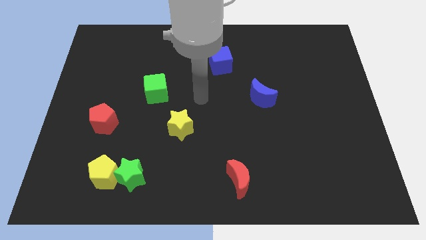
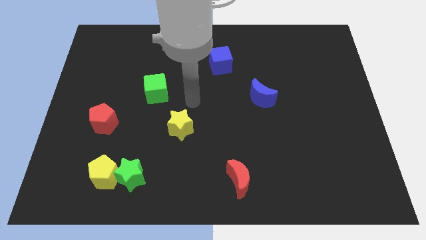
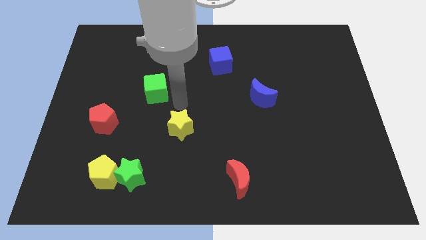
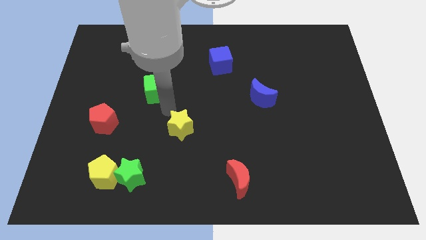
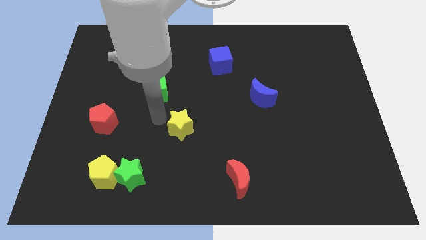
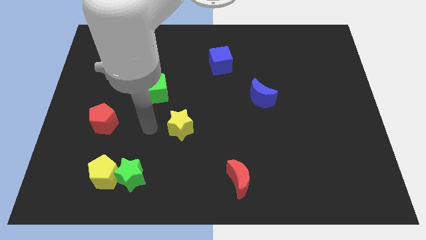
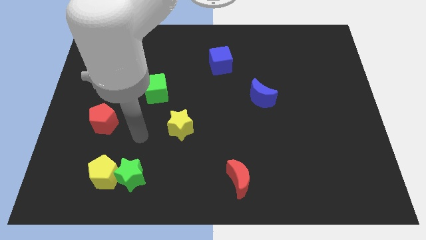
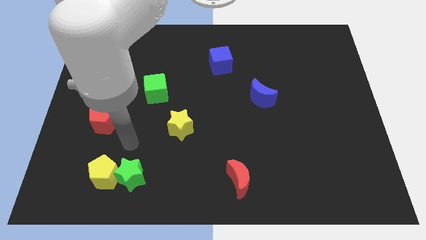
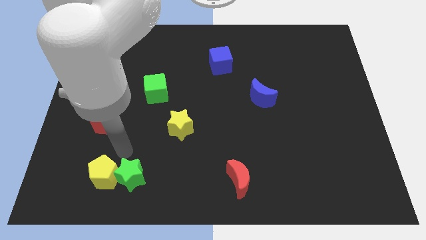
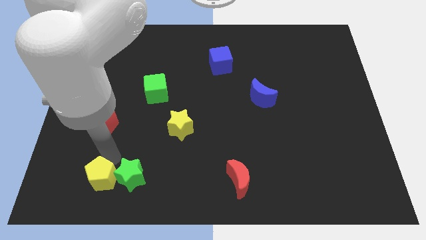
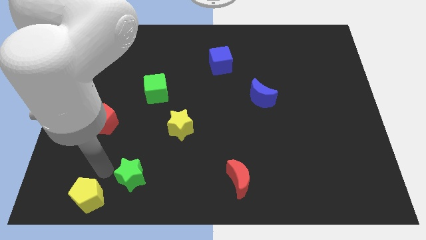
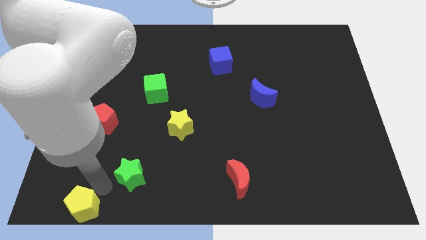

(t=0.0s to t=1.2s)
pull the green star apart from the yellow pentagon

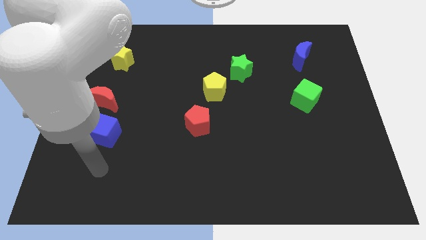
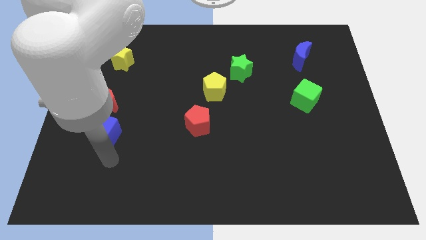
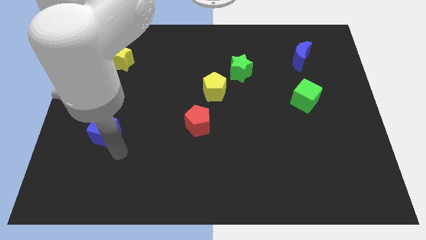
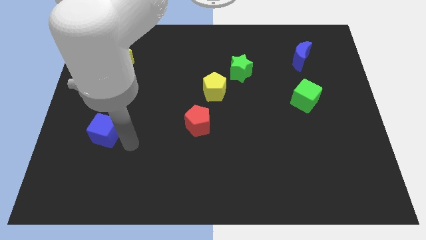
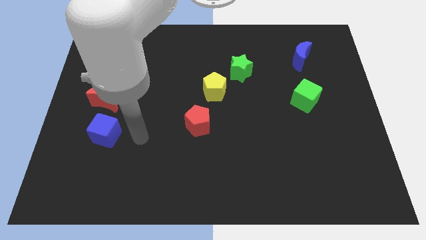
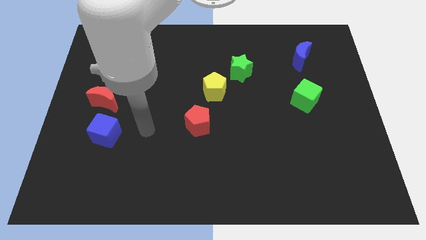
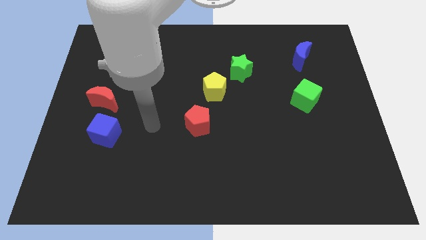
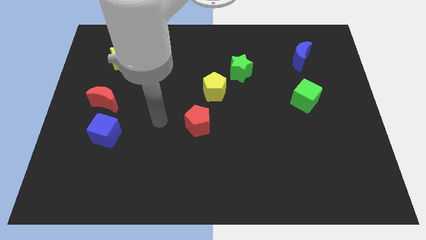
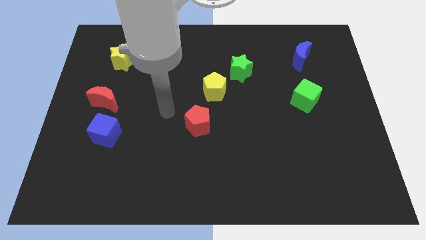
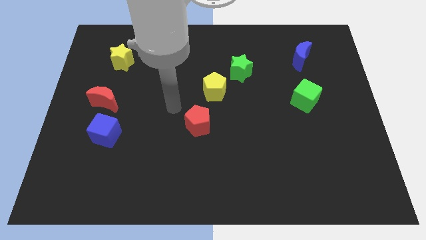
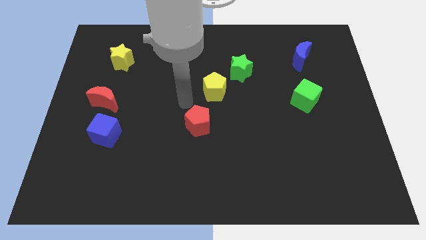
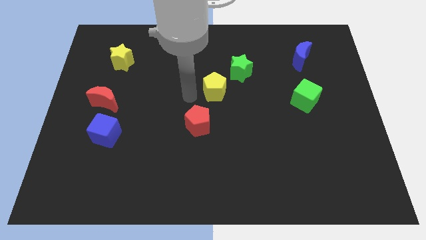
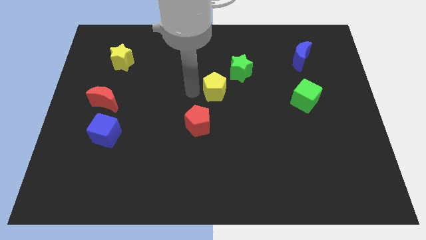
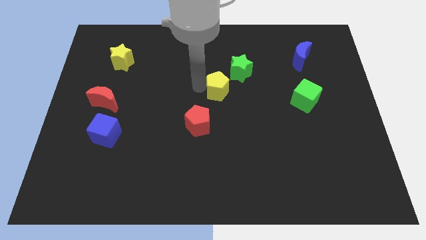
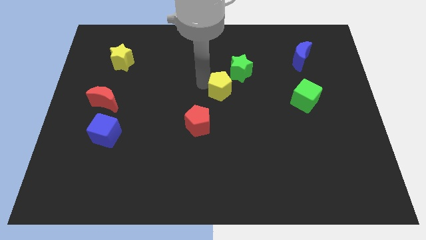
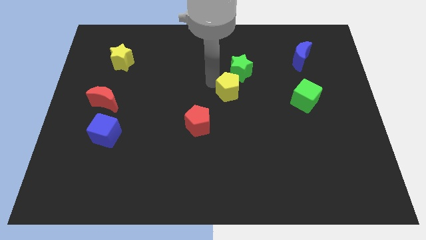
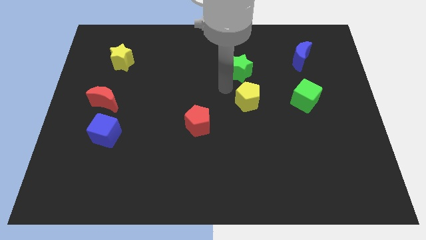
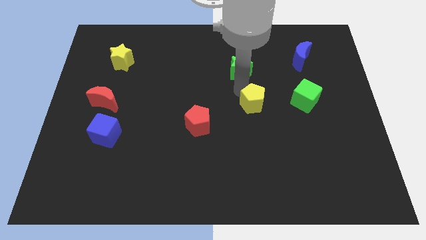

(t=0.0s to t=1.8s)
separate the green star from the yellow pentagon

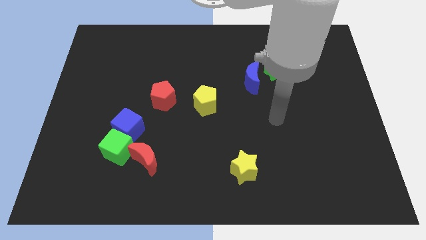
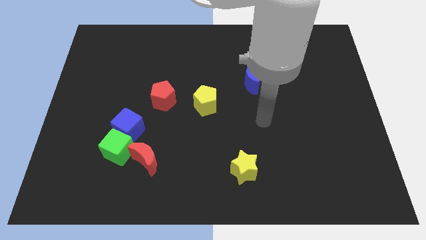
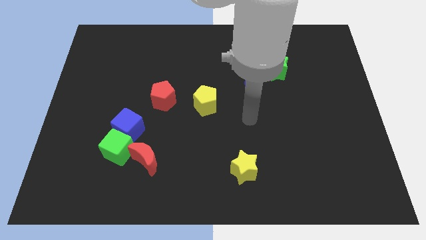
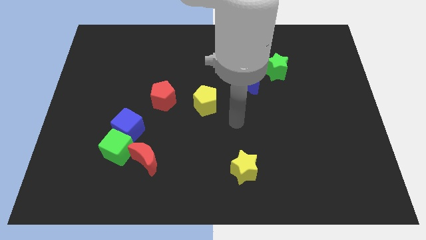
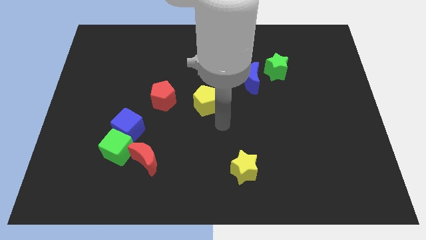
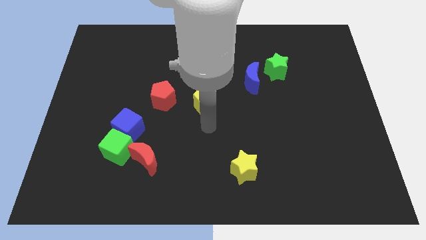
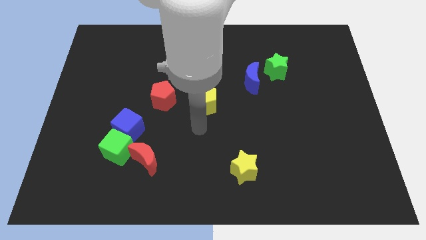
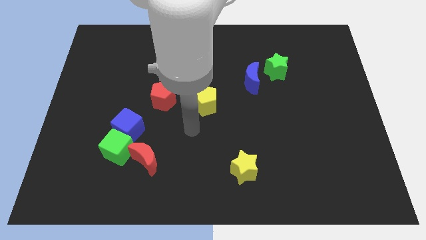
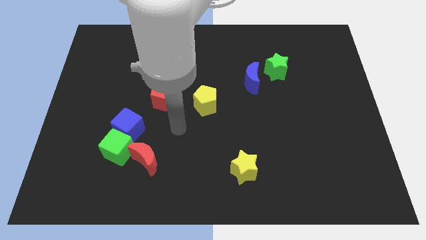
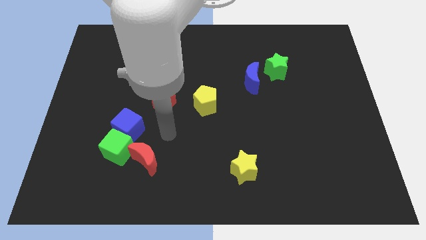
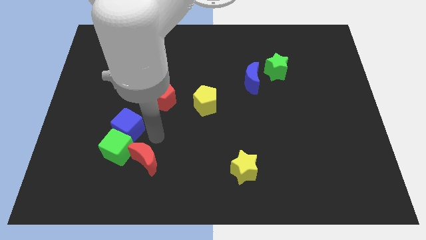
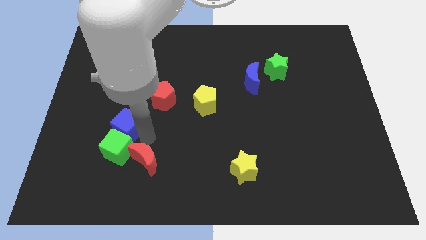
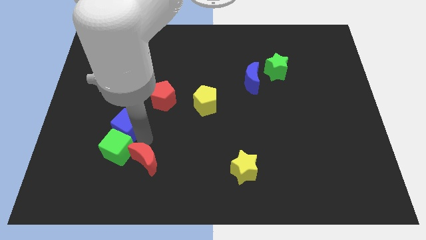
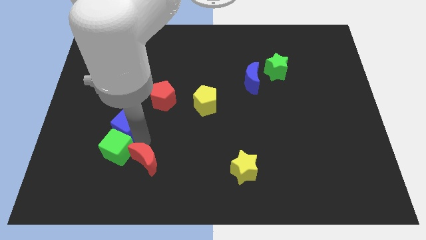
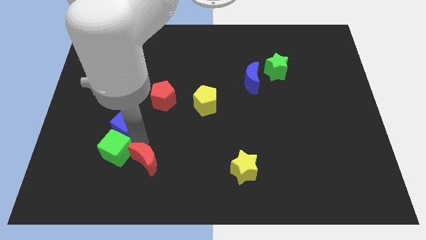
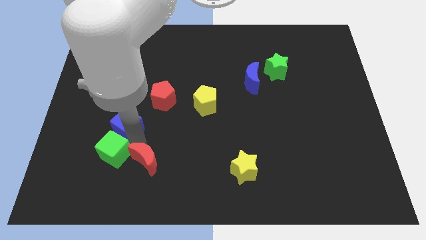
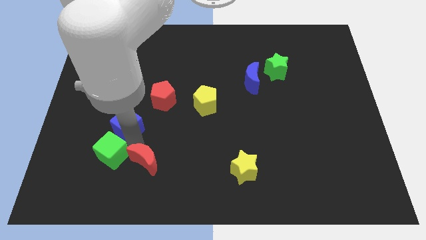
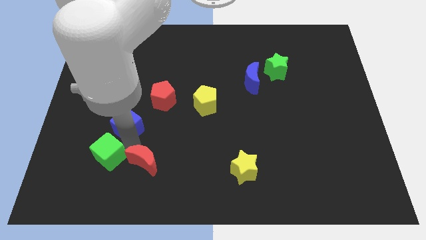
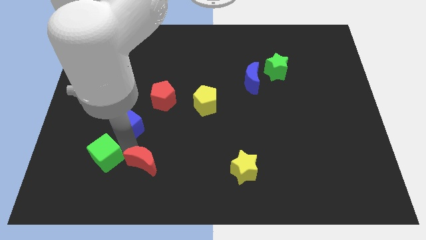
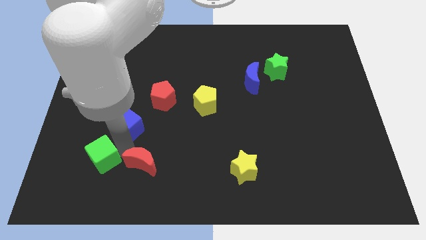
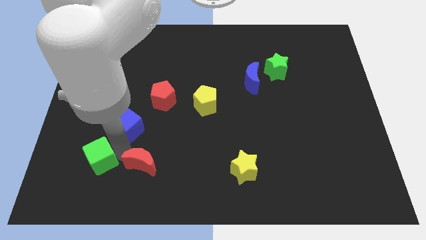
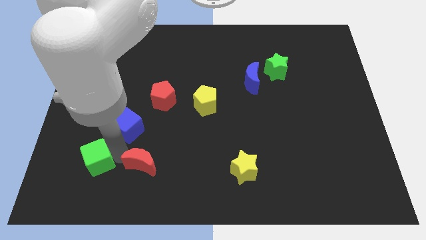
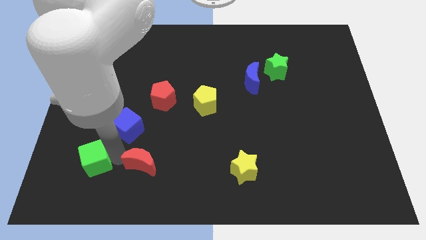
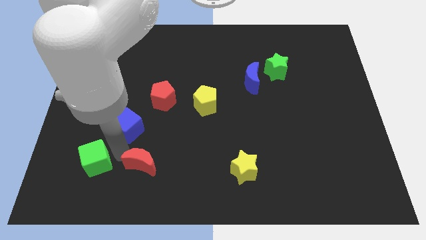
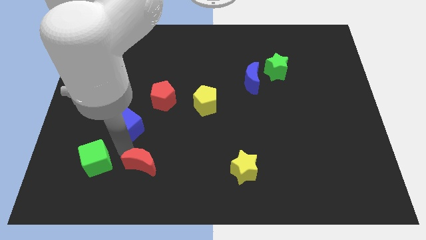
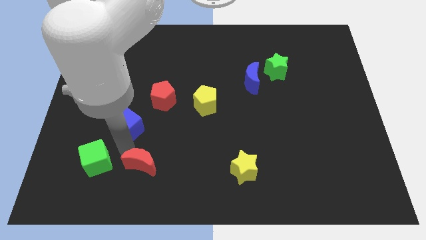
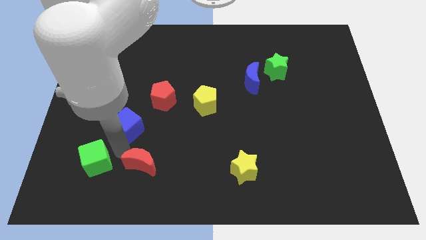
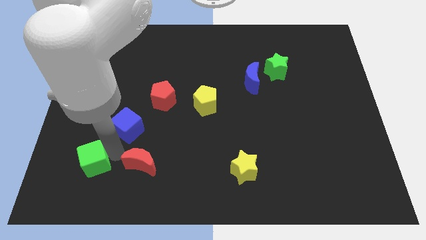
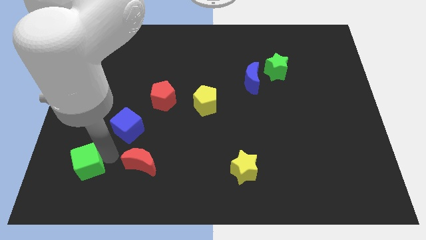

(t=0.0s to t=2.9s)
separate the green cube from the blue cube and red moon

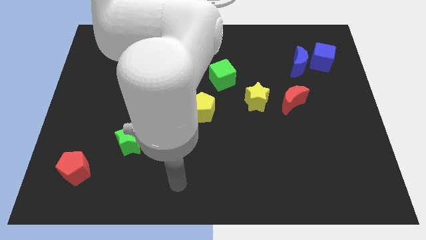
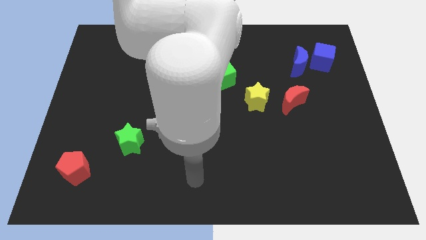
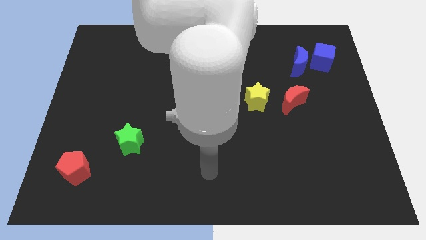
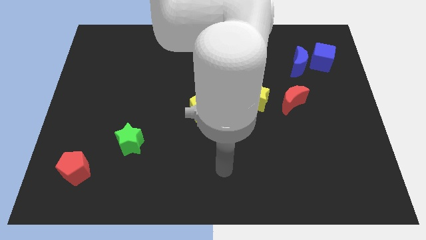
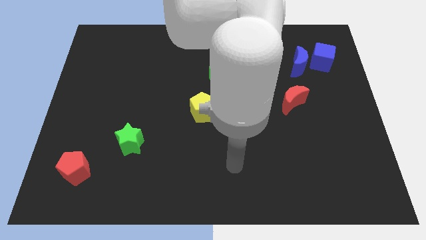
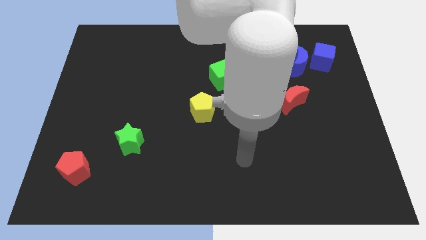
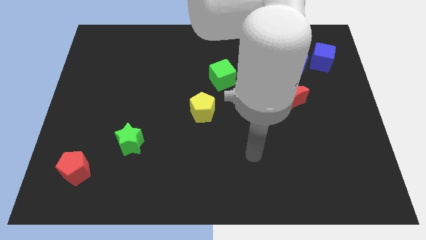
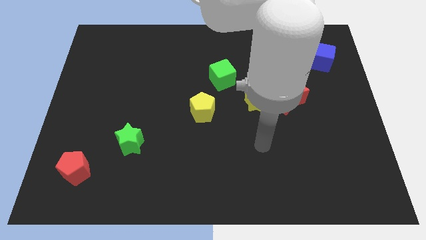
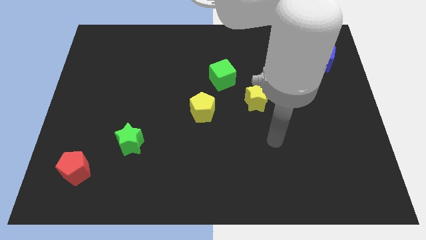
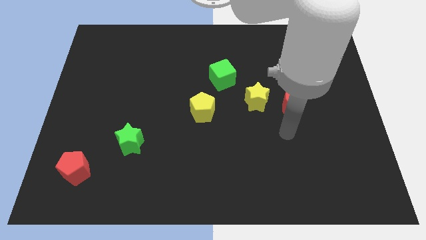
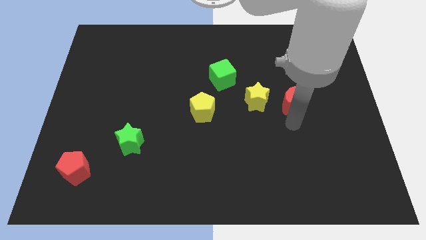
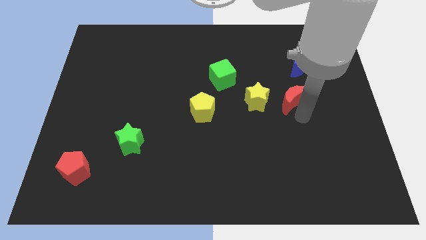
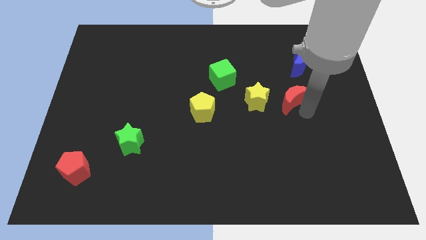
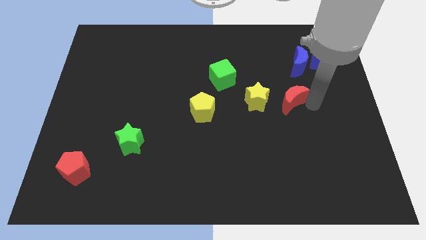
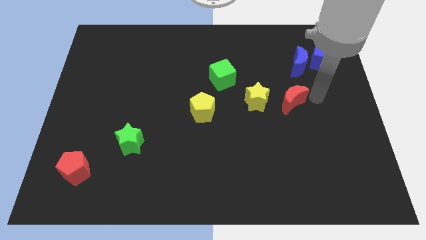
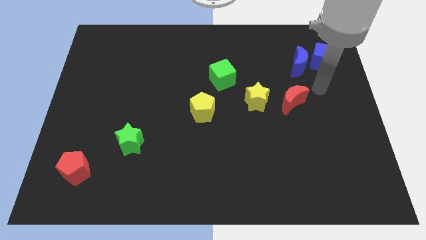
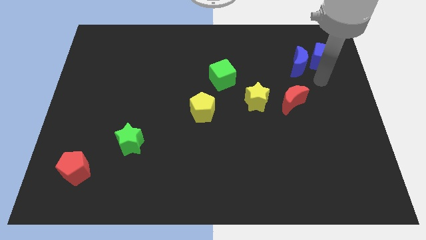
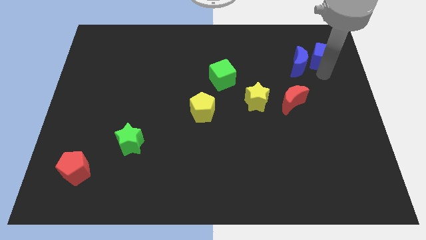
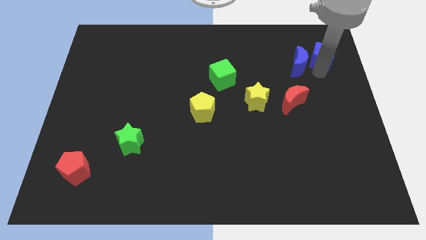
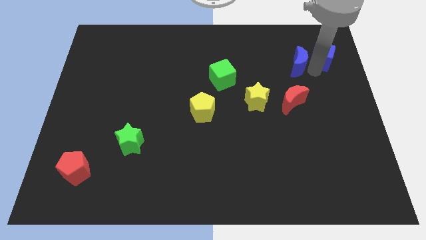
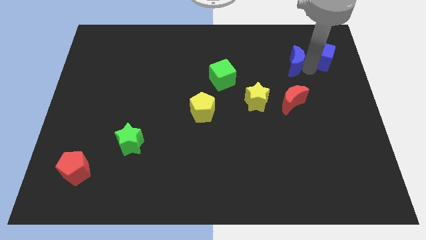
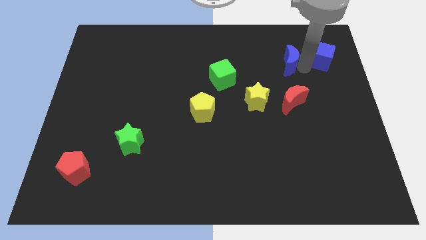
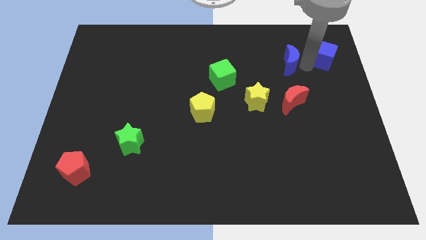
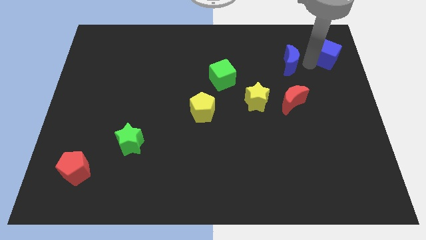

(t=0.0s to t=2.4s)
move the blue moon away from the blue cube

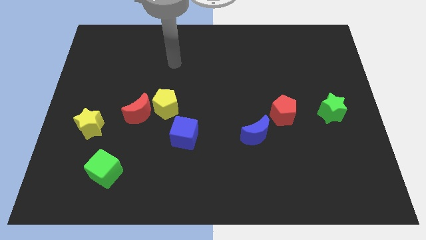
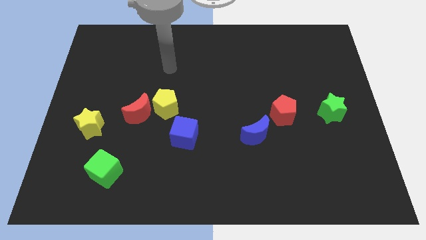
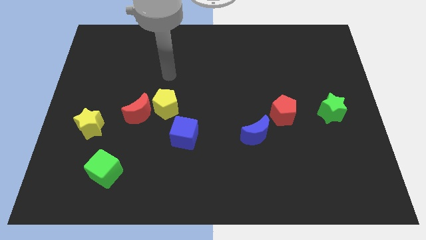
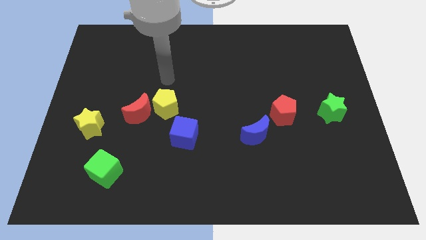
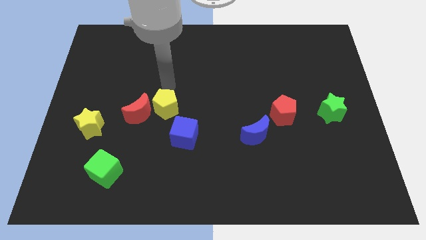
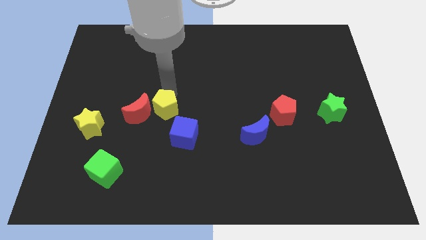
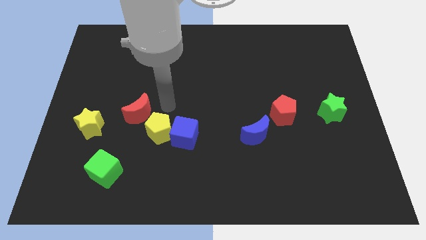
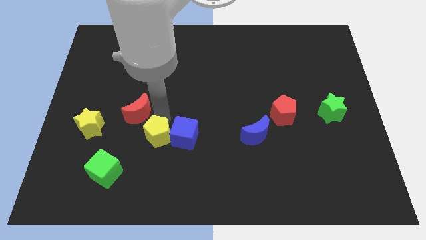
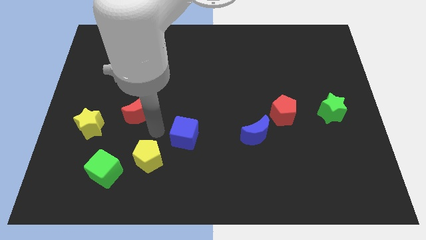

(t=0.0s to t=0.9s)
move the red moon away from the yellow pentagon

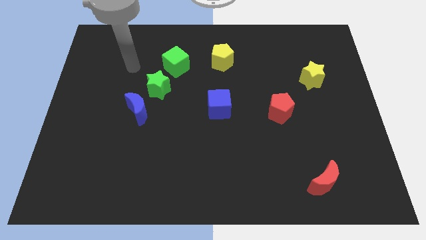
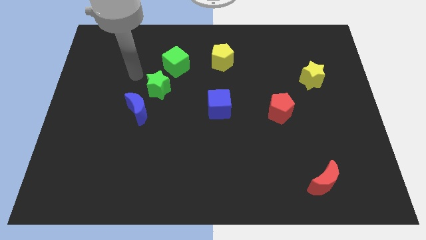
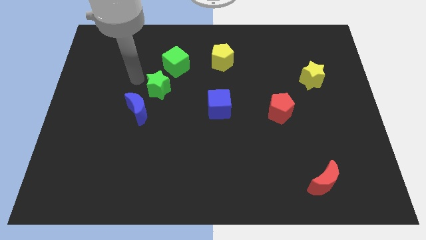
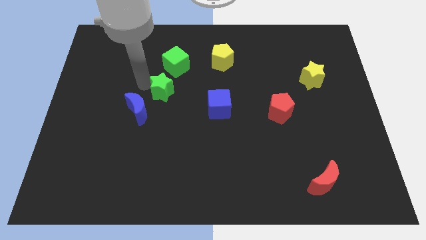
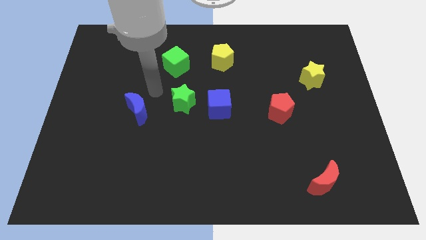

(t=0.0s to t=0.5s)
separate the blue moon from the green star
